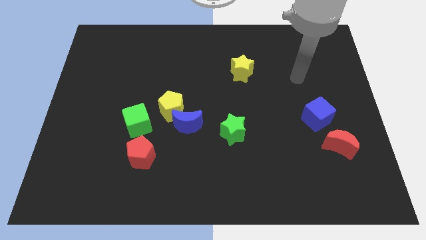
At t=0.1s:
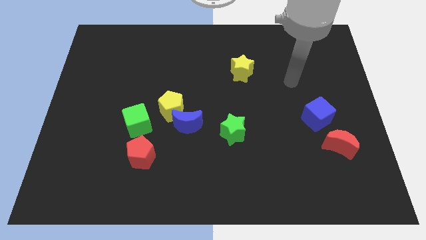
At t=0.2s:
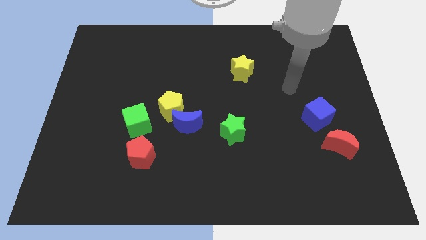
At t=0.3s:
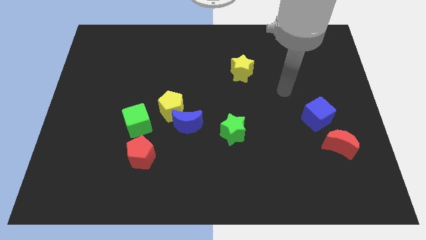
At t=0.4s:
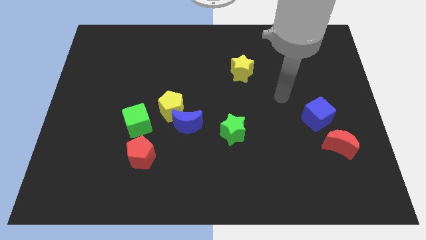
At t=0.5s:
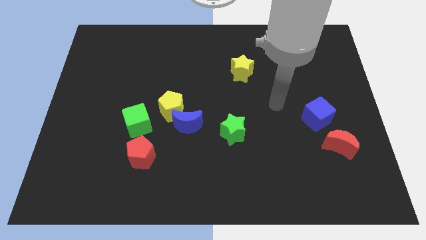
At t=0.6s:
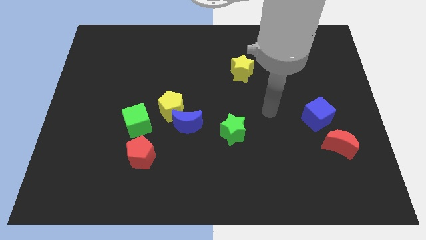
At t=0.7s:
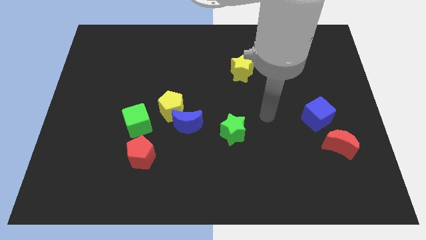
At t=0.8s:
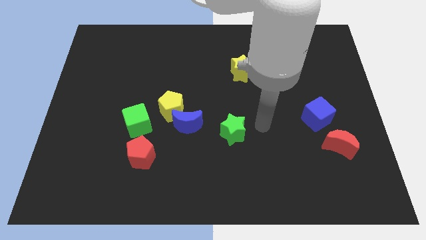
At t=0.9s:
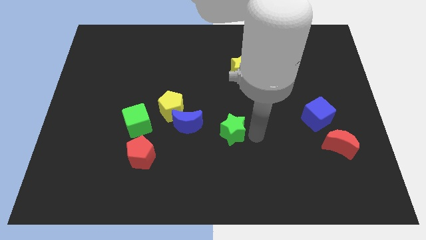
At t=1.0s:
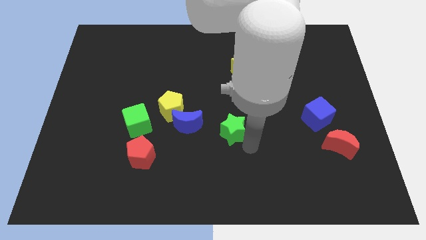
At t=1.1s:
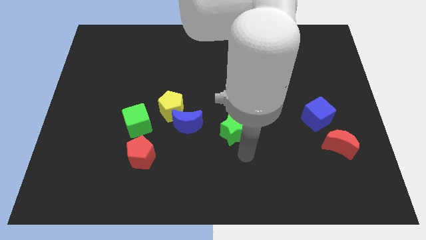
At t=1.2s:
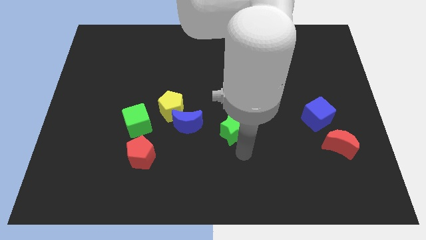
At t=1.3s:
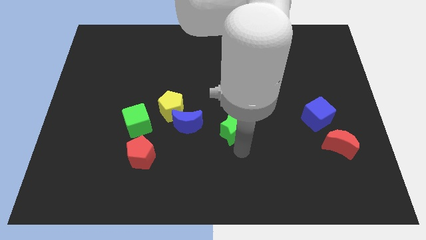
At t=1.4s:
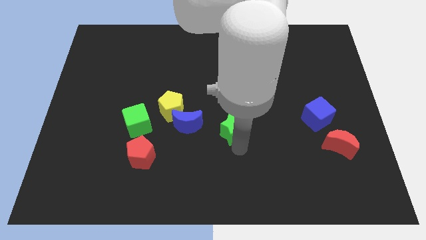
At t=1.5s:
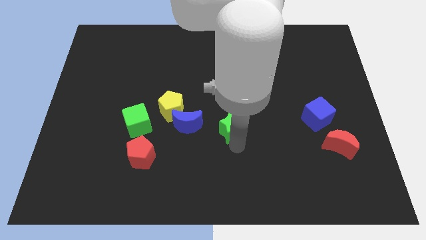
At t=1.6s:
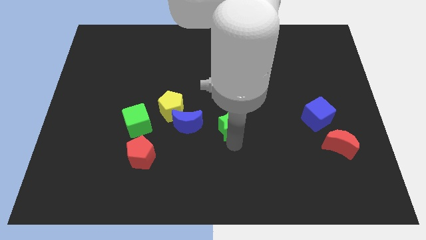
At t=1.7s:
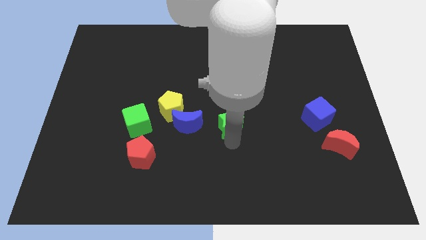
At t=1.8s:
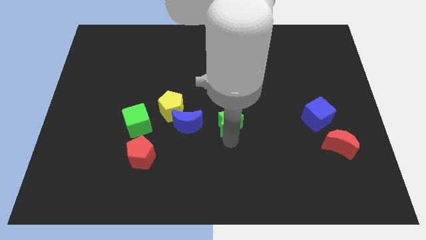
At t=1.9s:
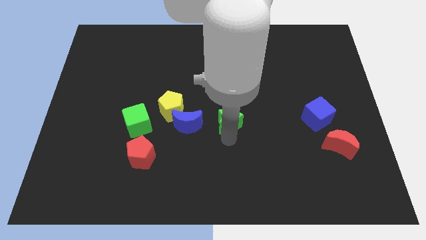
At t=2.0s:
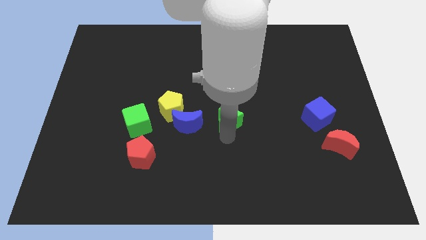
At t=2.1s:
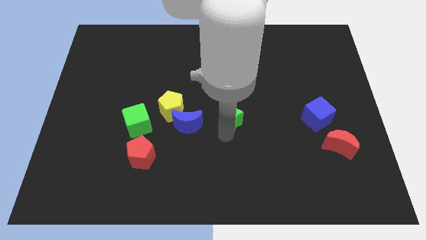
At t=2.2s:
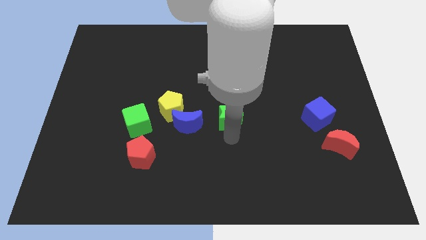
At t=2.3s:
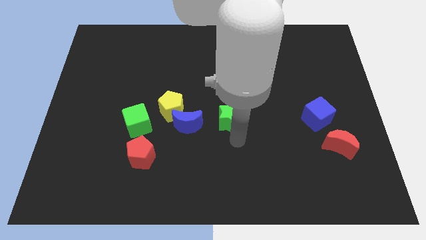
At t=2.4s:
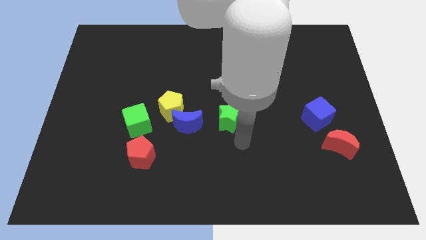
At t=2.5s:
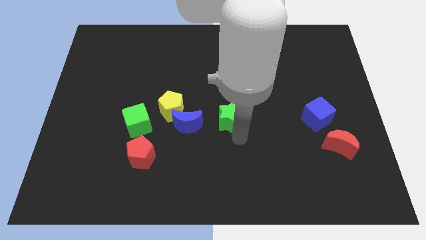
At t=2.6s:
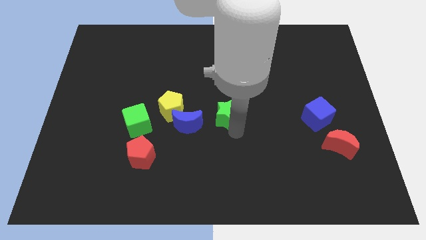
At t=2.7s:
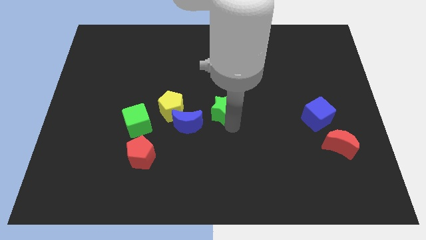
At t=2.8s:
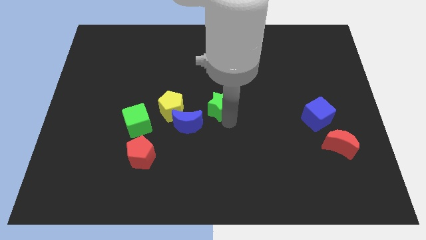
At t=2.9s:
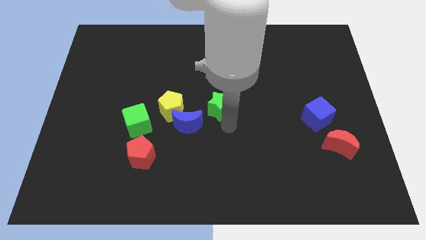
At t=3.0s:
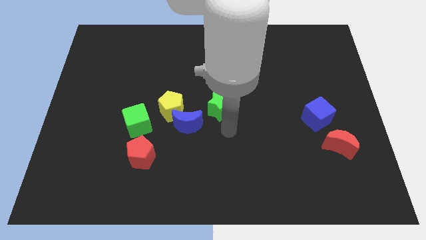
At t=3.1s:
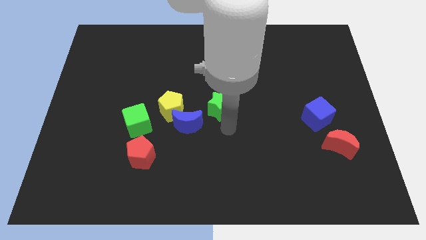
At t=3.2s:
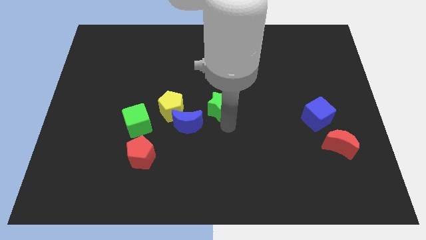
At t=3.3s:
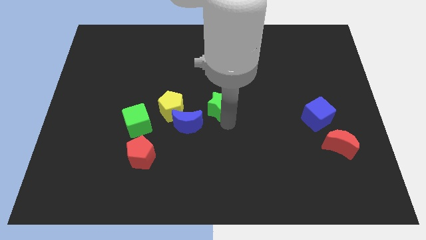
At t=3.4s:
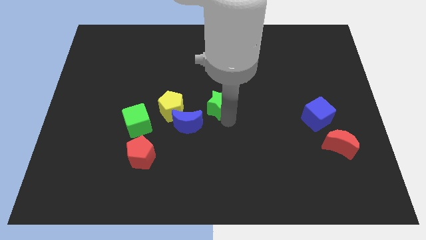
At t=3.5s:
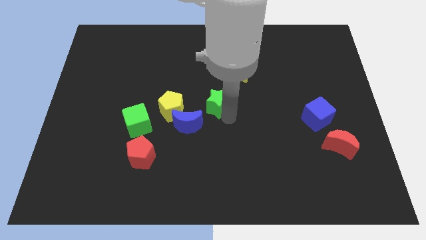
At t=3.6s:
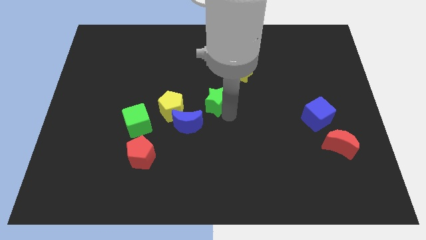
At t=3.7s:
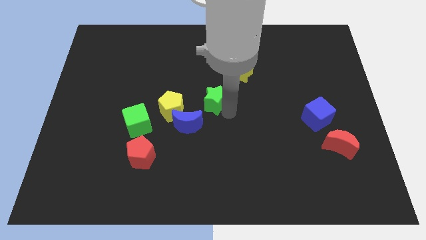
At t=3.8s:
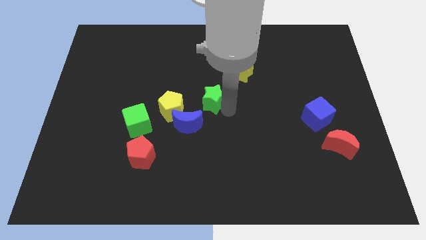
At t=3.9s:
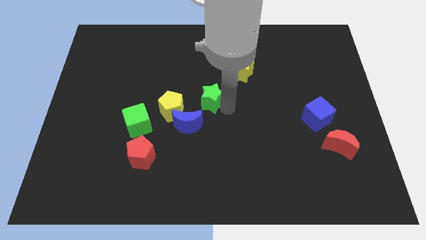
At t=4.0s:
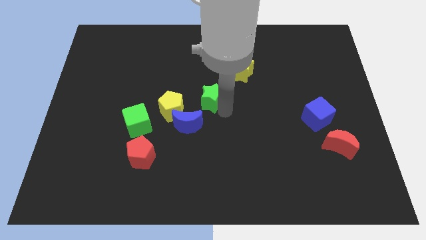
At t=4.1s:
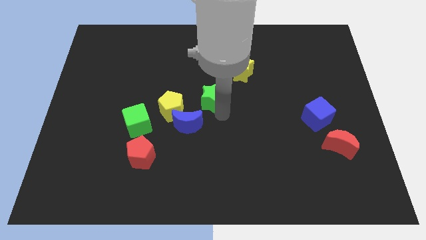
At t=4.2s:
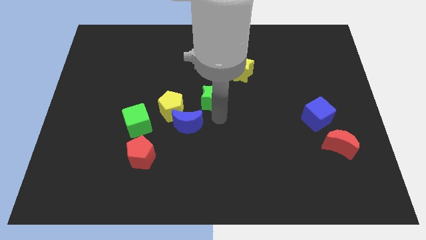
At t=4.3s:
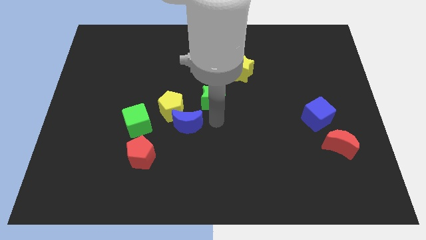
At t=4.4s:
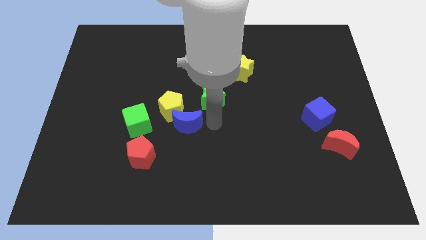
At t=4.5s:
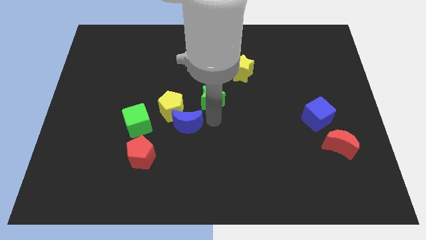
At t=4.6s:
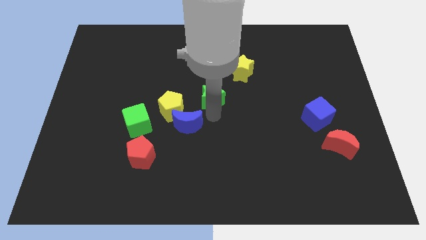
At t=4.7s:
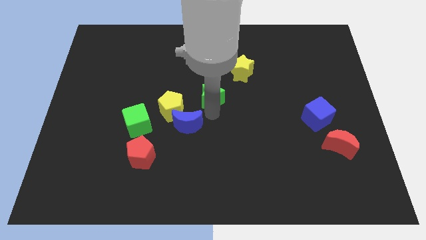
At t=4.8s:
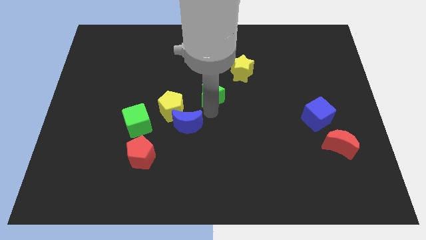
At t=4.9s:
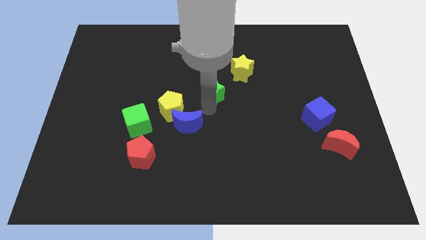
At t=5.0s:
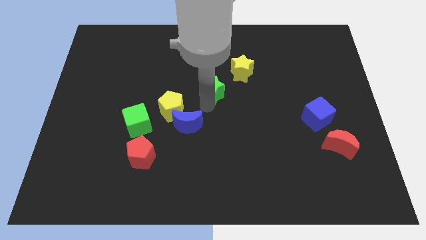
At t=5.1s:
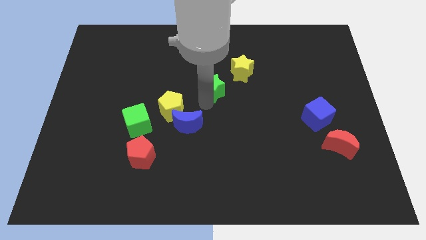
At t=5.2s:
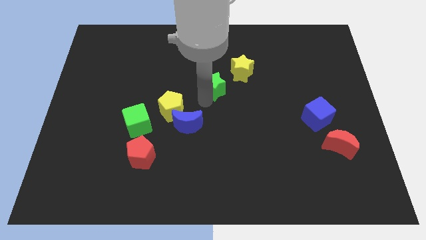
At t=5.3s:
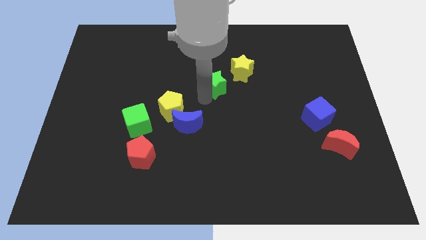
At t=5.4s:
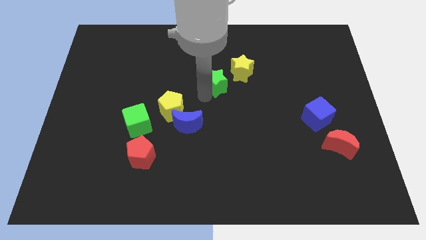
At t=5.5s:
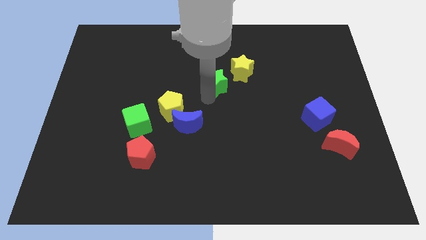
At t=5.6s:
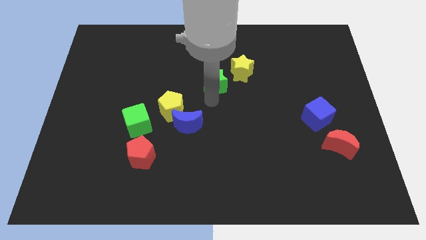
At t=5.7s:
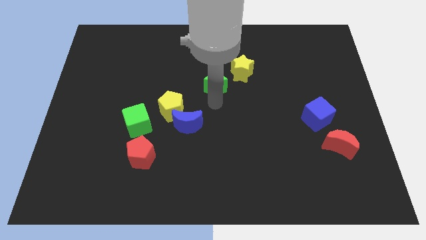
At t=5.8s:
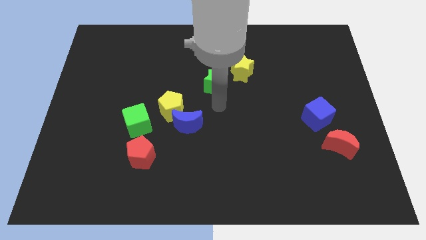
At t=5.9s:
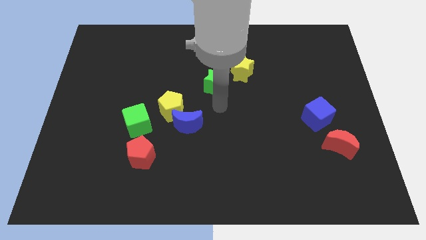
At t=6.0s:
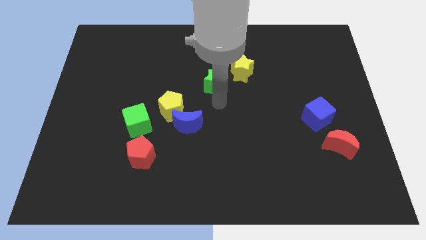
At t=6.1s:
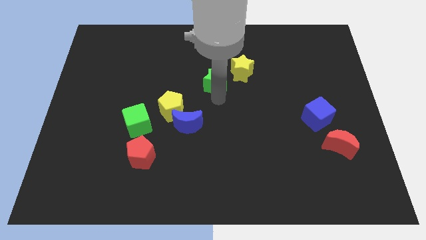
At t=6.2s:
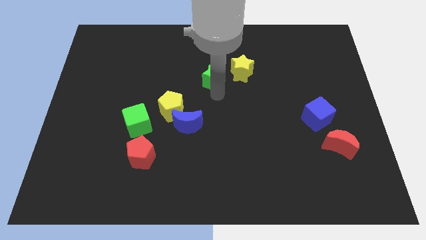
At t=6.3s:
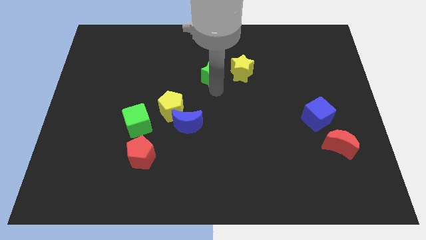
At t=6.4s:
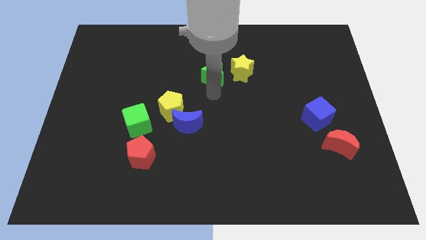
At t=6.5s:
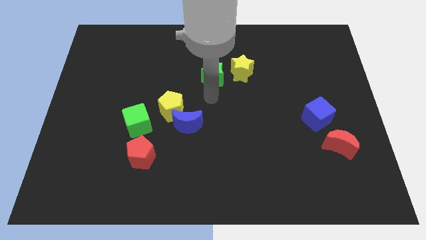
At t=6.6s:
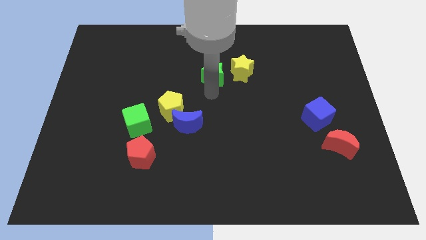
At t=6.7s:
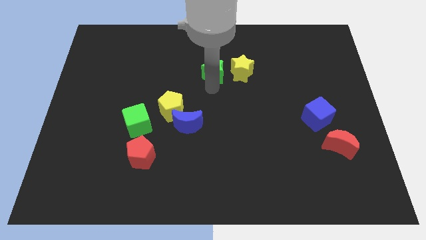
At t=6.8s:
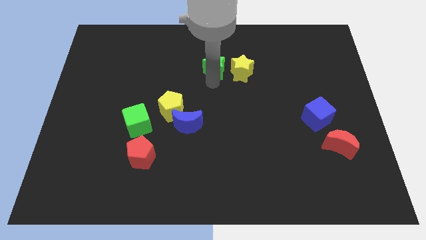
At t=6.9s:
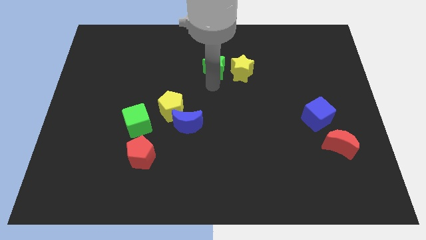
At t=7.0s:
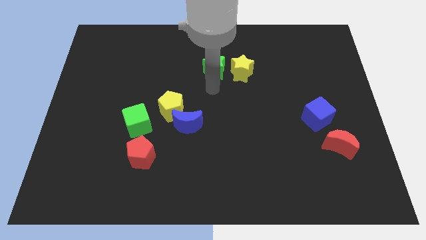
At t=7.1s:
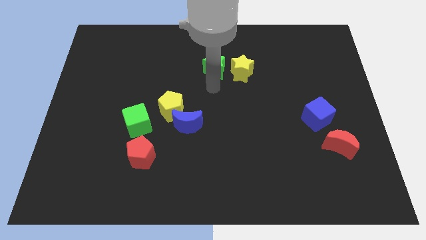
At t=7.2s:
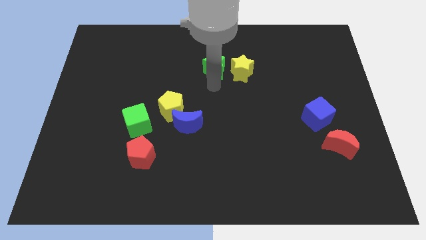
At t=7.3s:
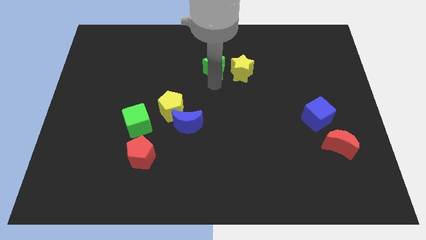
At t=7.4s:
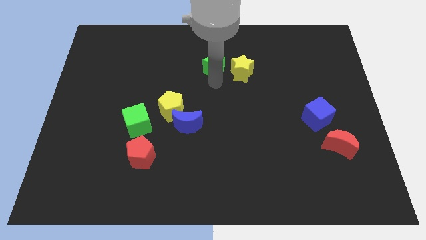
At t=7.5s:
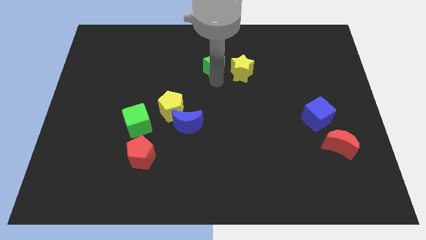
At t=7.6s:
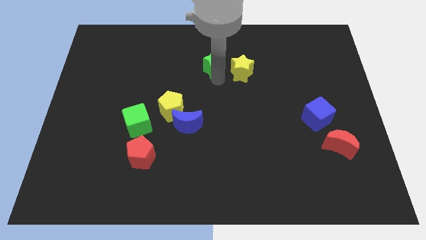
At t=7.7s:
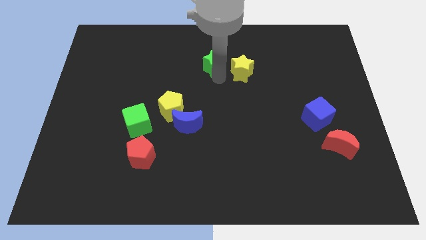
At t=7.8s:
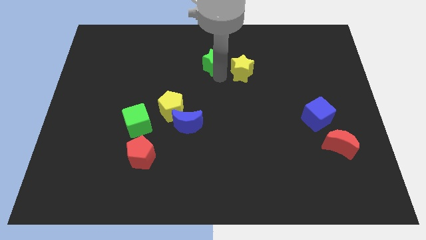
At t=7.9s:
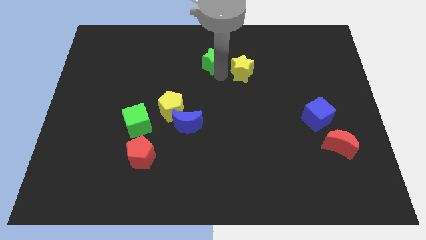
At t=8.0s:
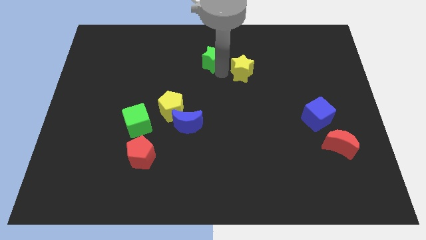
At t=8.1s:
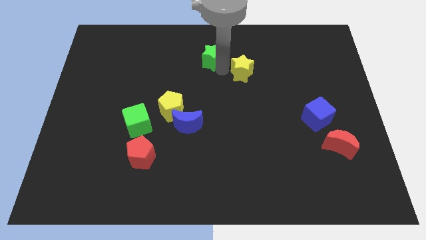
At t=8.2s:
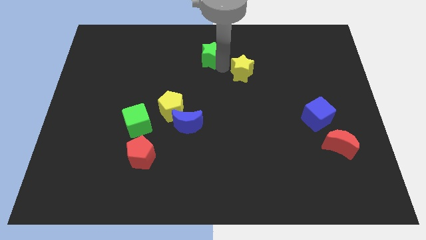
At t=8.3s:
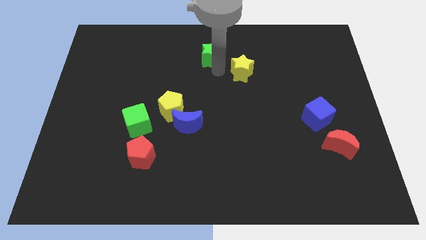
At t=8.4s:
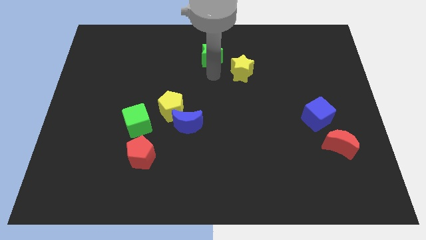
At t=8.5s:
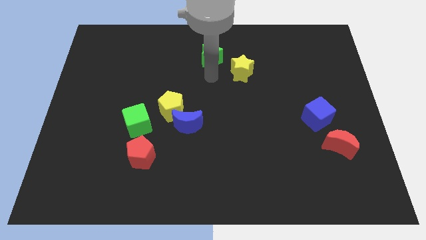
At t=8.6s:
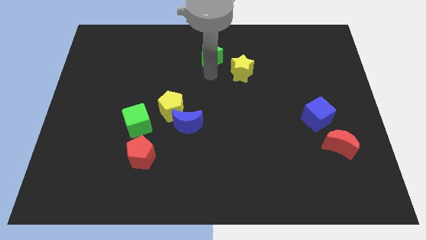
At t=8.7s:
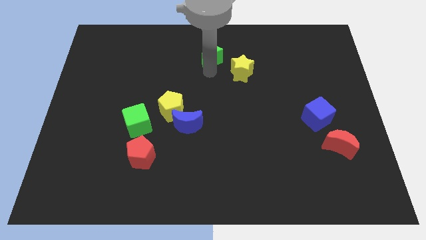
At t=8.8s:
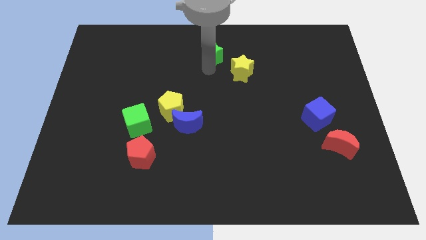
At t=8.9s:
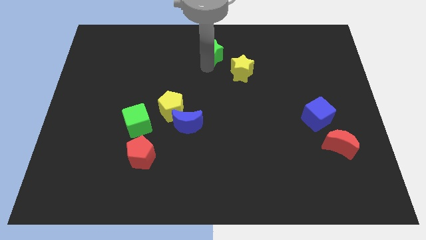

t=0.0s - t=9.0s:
move the green star to the top side
